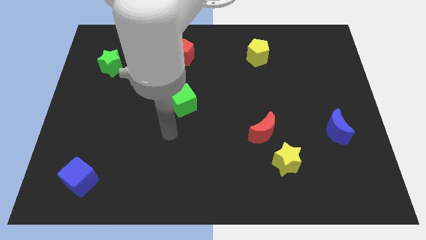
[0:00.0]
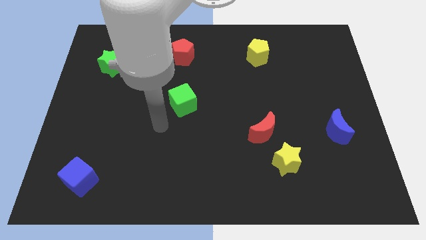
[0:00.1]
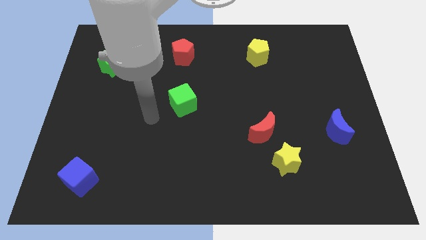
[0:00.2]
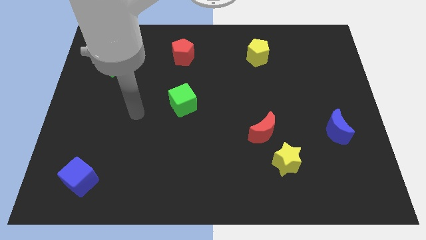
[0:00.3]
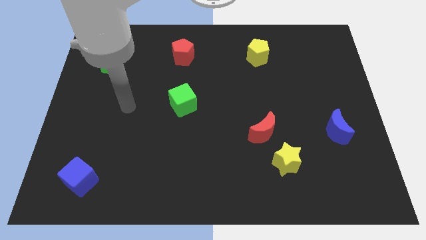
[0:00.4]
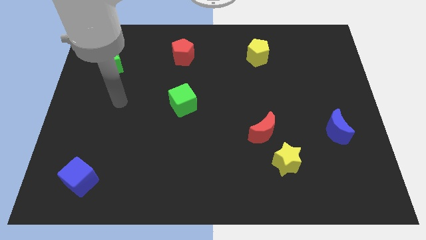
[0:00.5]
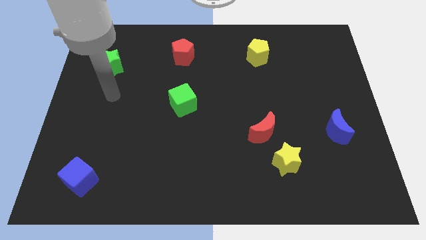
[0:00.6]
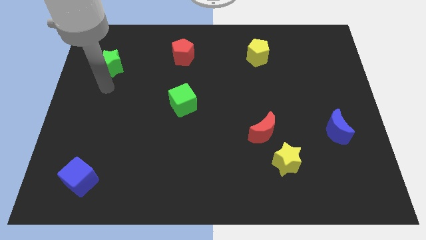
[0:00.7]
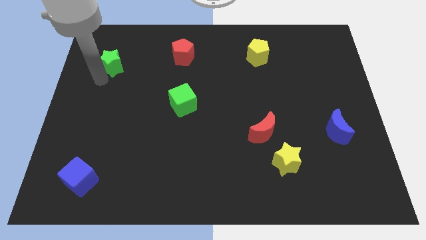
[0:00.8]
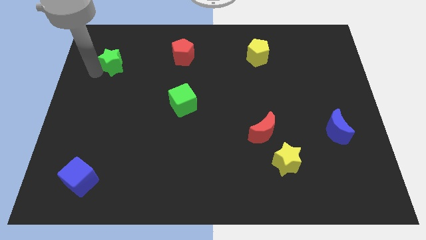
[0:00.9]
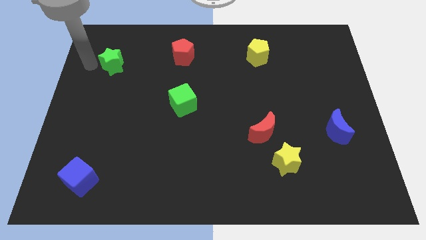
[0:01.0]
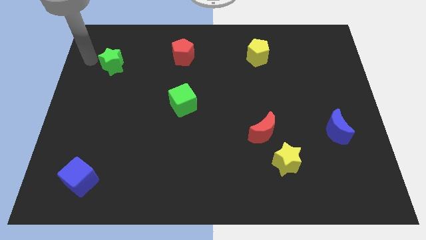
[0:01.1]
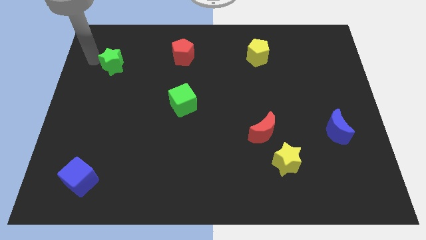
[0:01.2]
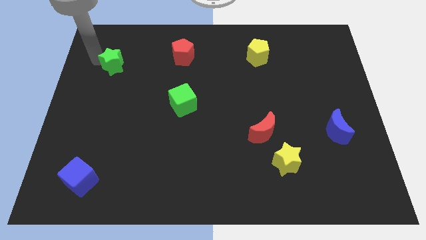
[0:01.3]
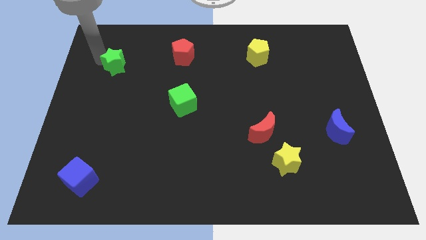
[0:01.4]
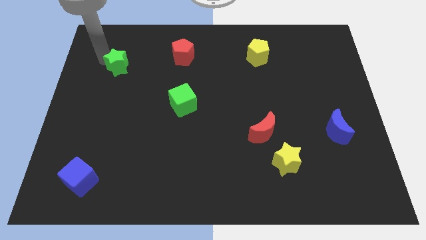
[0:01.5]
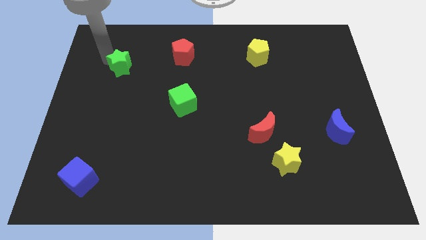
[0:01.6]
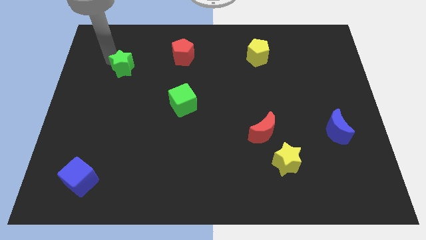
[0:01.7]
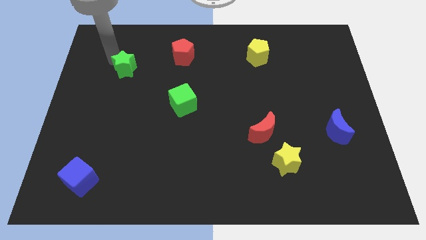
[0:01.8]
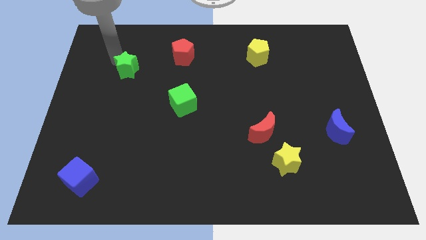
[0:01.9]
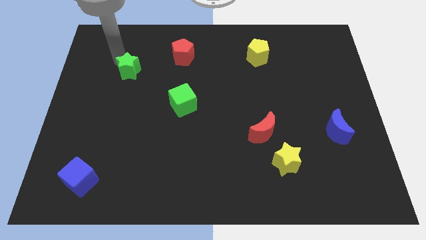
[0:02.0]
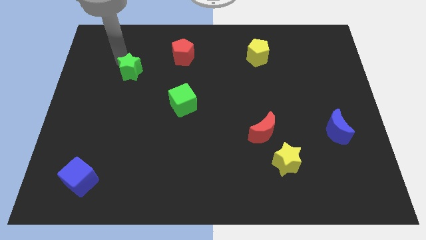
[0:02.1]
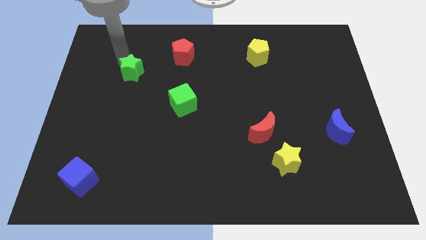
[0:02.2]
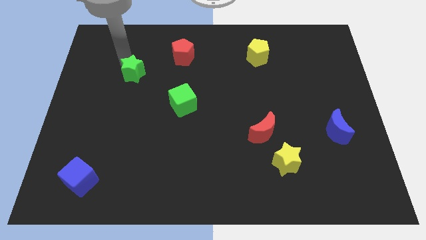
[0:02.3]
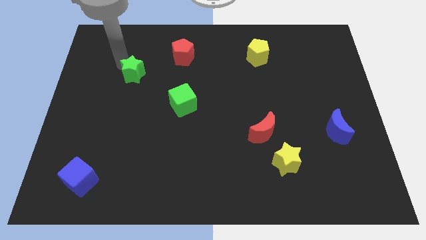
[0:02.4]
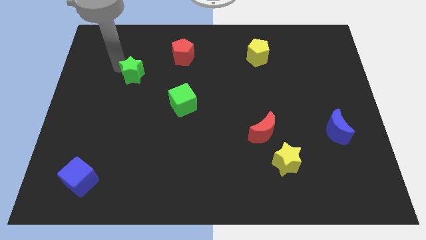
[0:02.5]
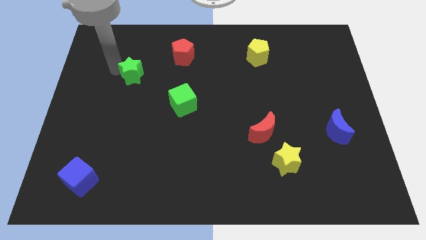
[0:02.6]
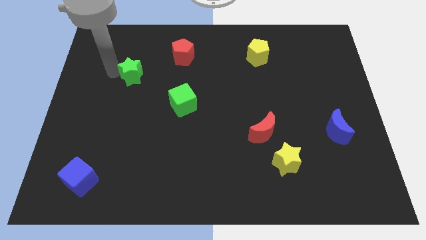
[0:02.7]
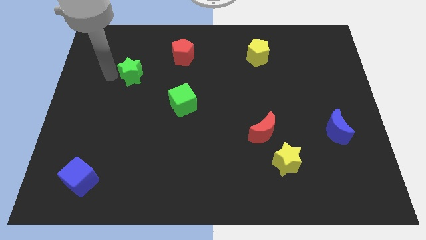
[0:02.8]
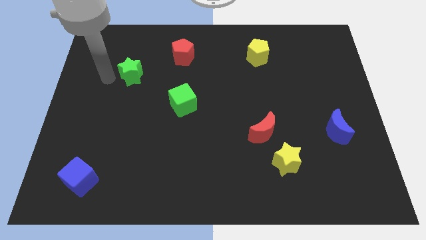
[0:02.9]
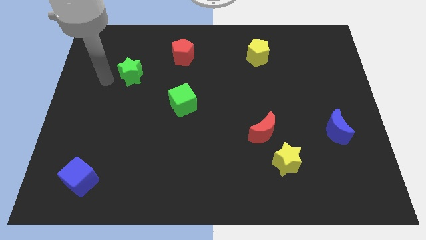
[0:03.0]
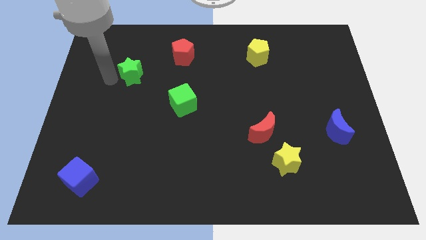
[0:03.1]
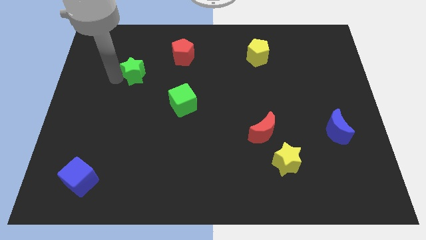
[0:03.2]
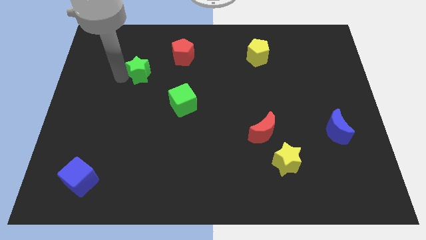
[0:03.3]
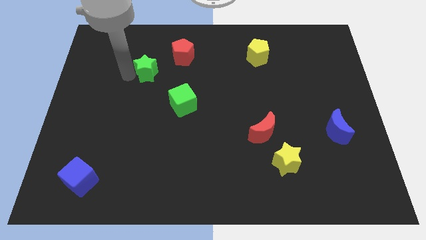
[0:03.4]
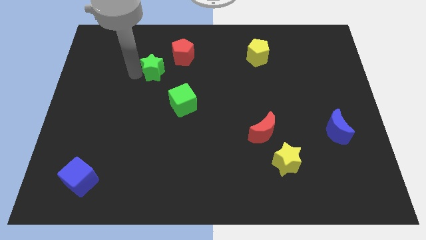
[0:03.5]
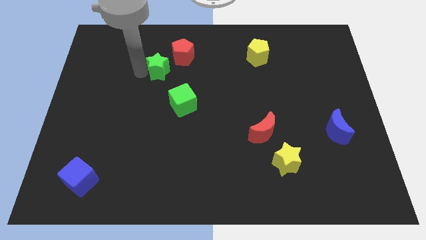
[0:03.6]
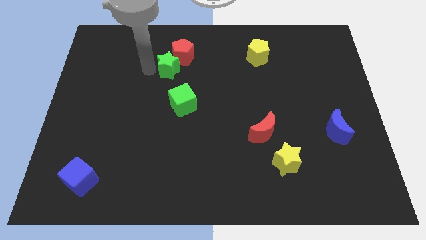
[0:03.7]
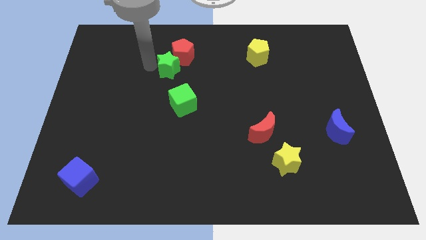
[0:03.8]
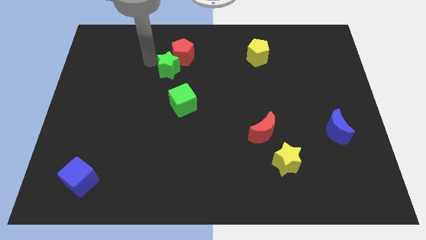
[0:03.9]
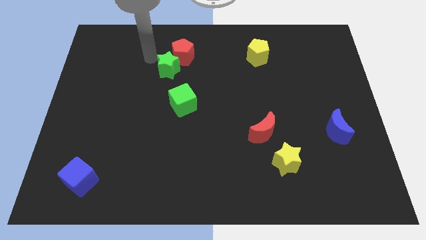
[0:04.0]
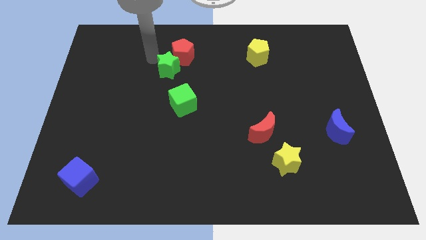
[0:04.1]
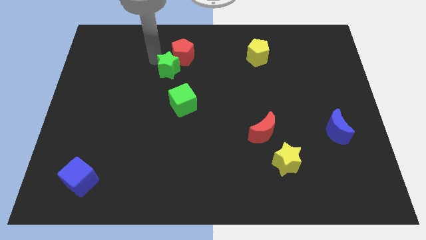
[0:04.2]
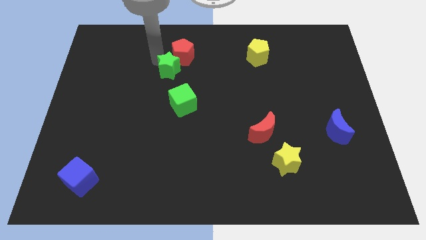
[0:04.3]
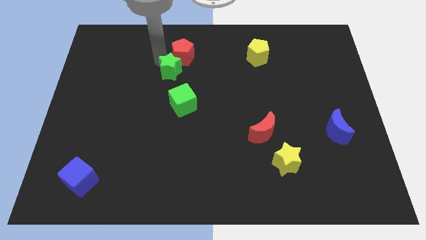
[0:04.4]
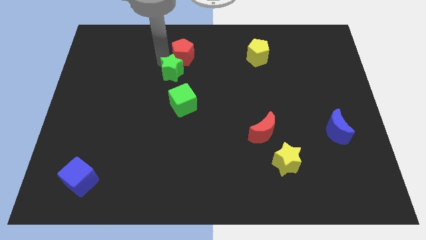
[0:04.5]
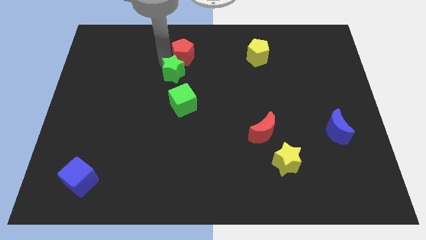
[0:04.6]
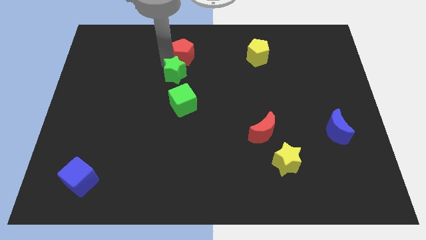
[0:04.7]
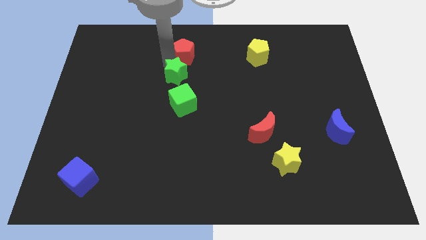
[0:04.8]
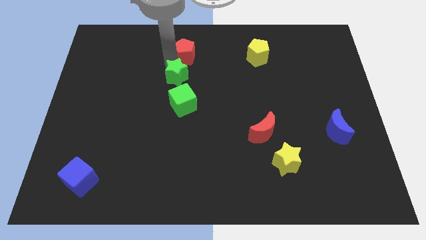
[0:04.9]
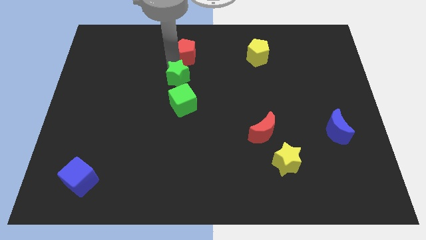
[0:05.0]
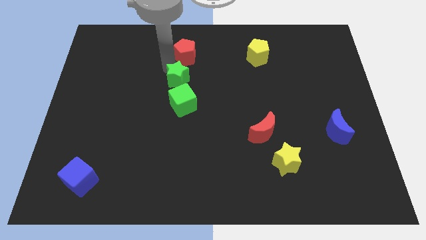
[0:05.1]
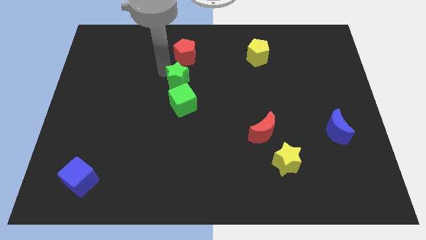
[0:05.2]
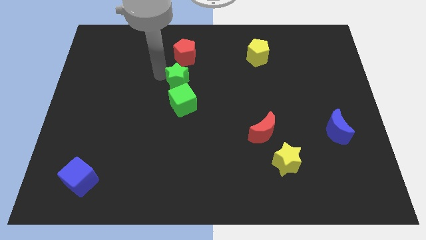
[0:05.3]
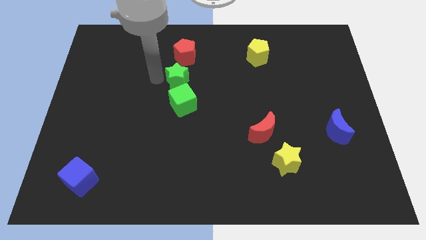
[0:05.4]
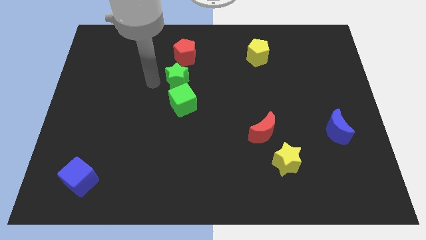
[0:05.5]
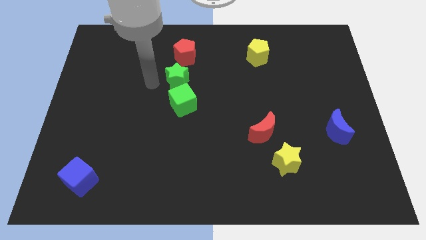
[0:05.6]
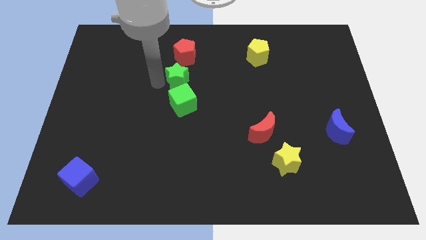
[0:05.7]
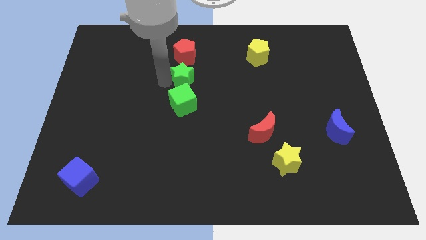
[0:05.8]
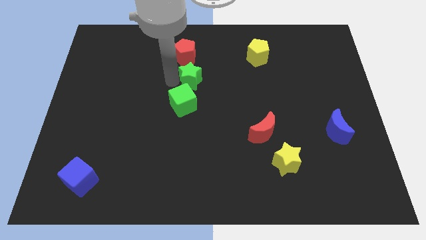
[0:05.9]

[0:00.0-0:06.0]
slide the green star right

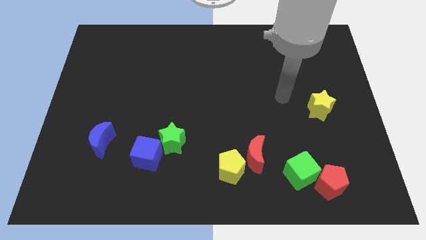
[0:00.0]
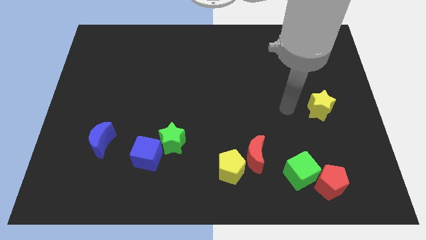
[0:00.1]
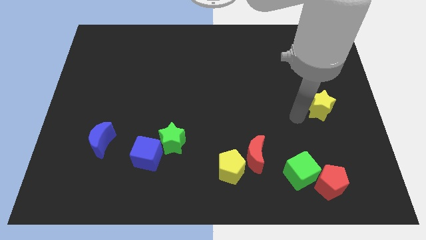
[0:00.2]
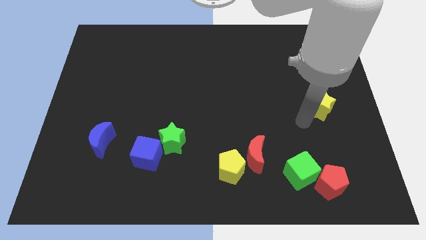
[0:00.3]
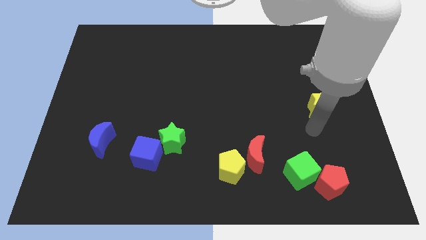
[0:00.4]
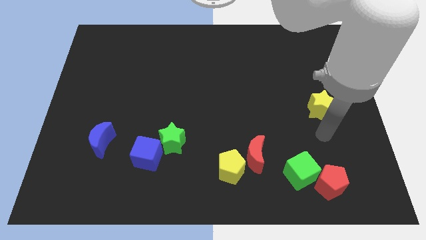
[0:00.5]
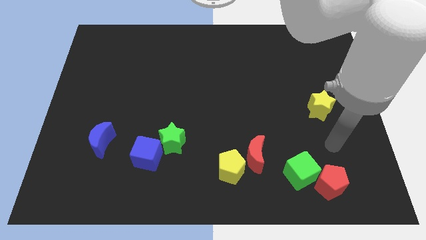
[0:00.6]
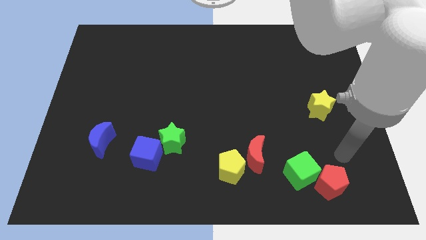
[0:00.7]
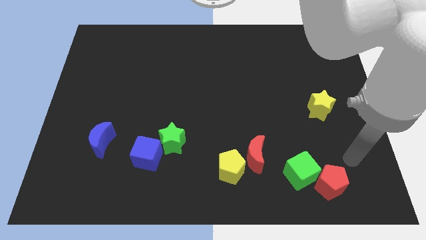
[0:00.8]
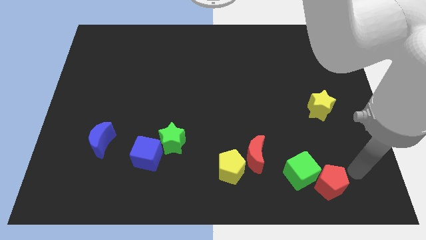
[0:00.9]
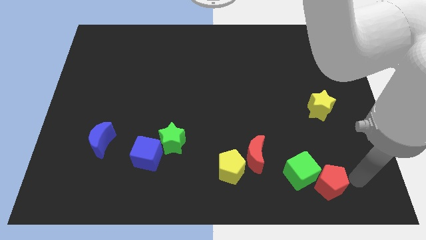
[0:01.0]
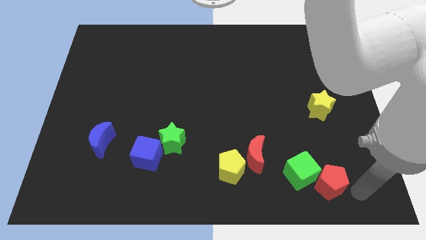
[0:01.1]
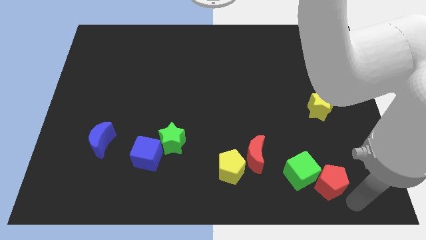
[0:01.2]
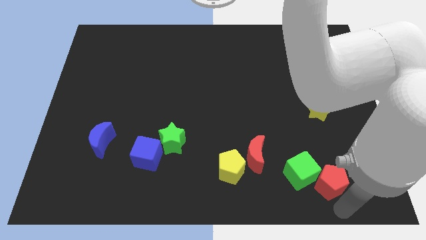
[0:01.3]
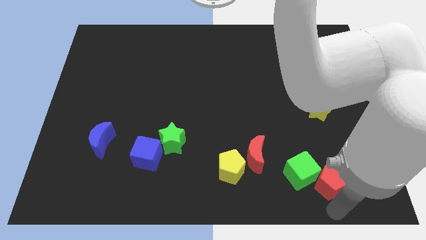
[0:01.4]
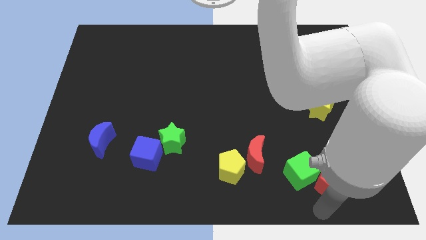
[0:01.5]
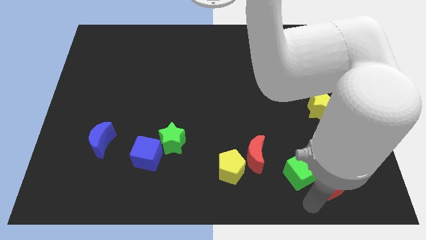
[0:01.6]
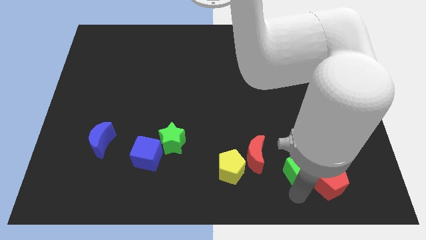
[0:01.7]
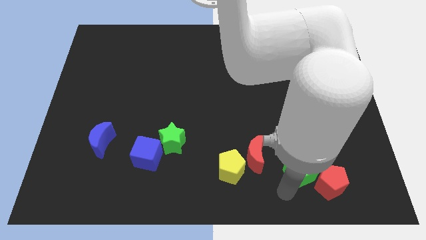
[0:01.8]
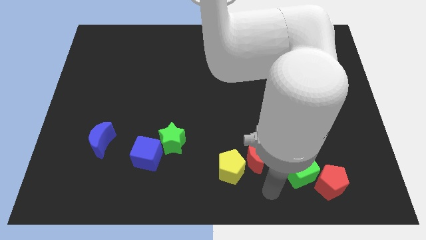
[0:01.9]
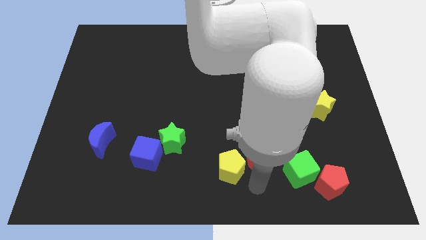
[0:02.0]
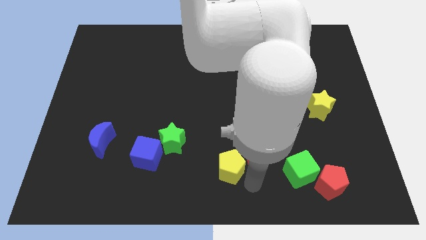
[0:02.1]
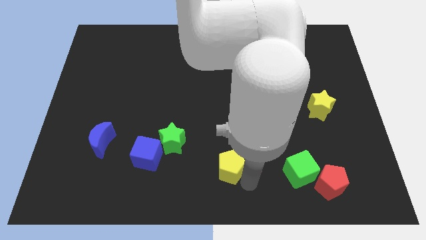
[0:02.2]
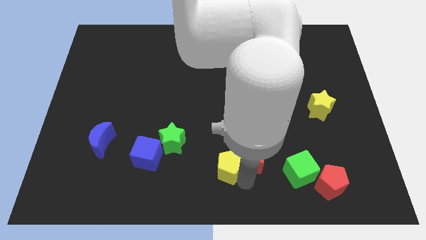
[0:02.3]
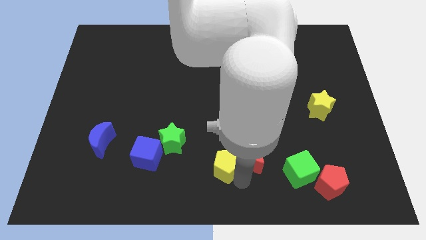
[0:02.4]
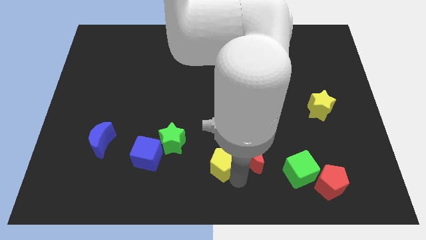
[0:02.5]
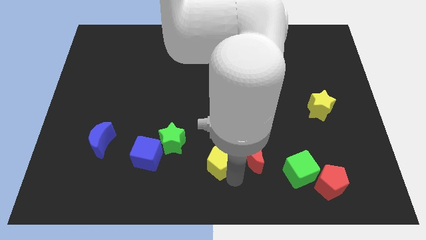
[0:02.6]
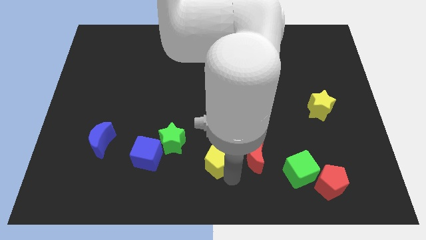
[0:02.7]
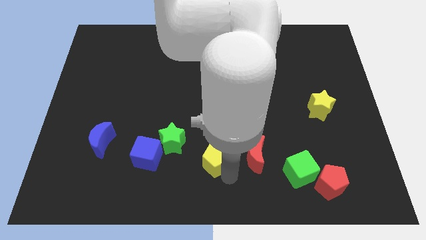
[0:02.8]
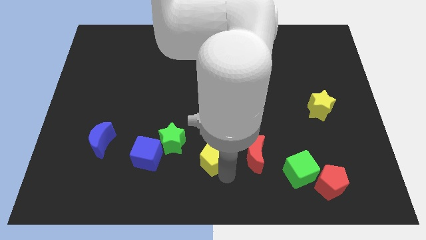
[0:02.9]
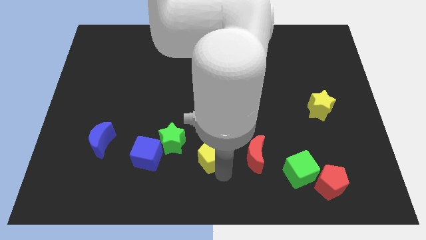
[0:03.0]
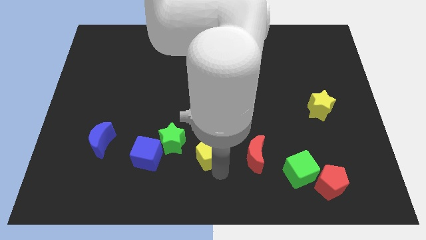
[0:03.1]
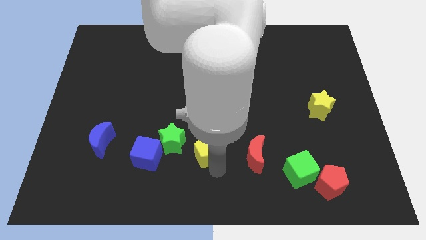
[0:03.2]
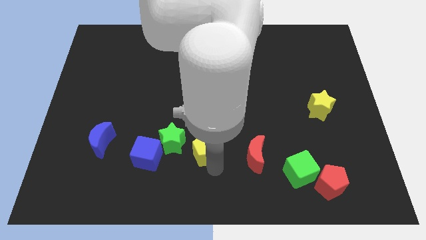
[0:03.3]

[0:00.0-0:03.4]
push the yellow pentagon upwards and to the left diagonally a little
